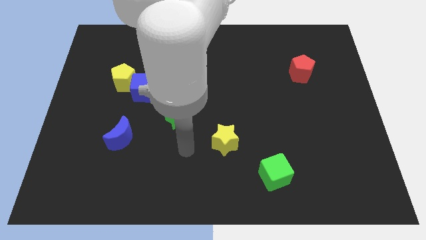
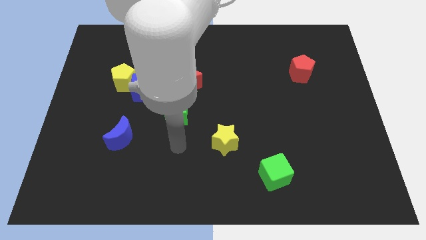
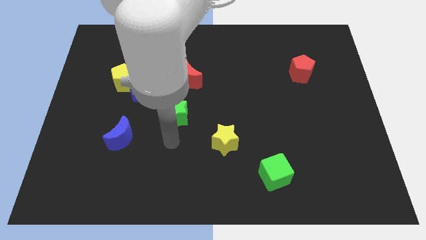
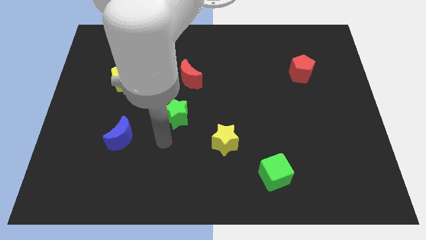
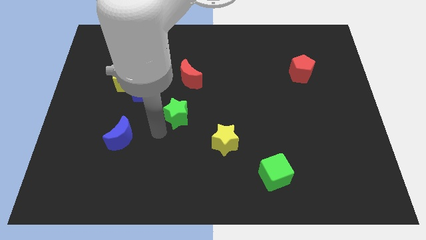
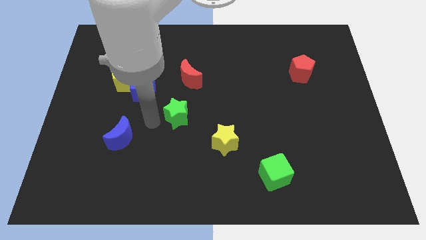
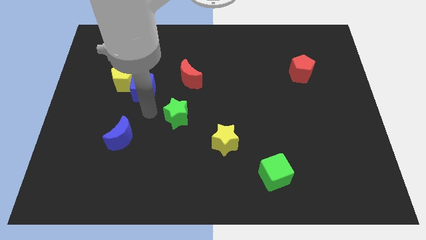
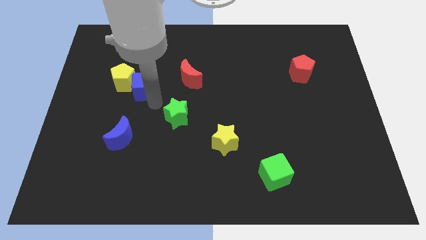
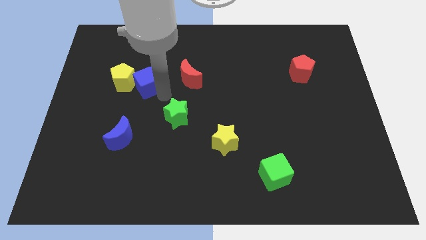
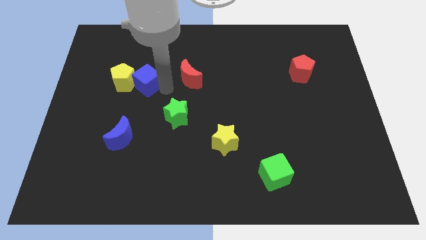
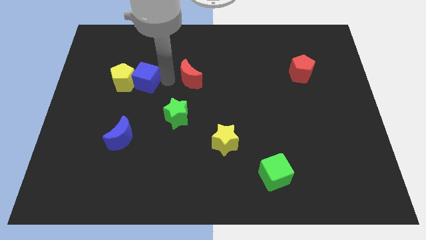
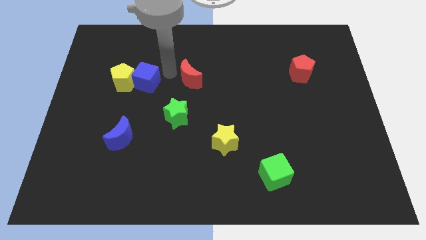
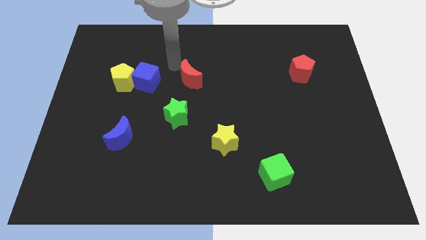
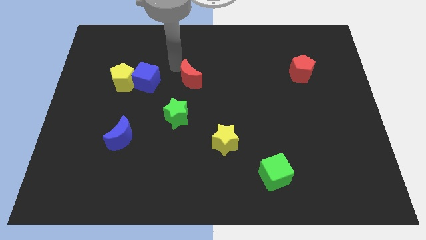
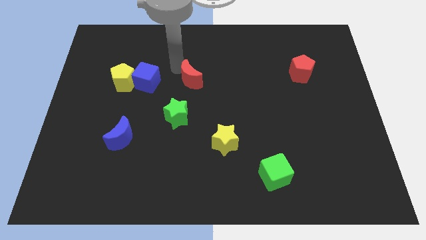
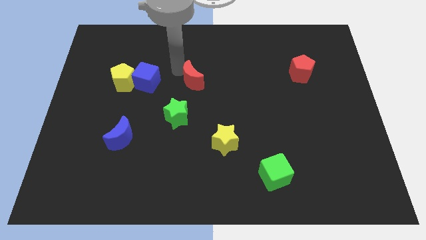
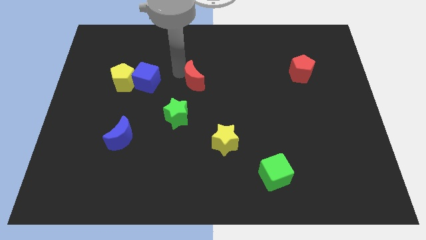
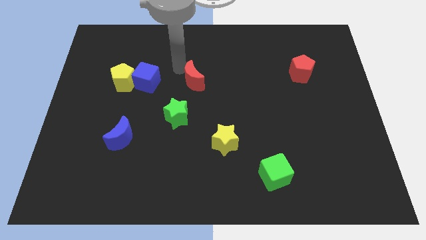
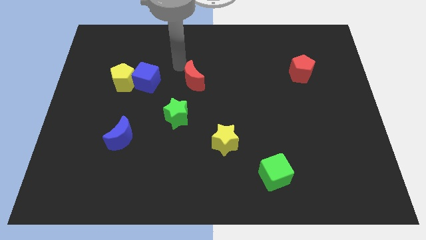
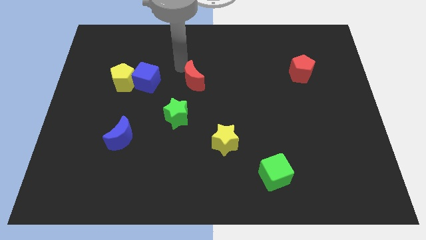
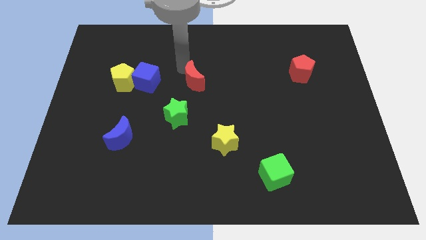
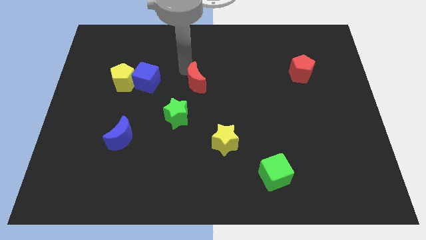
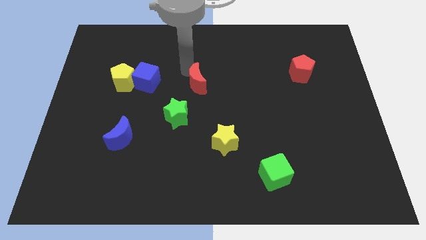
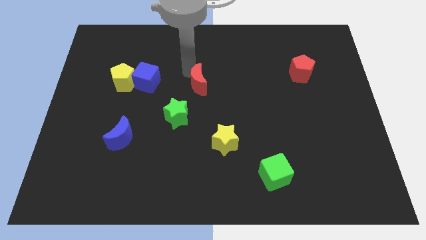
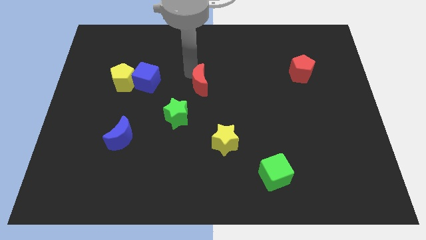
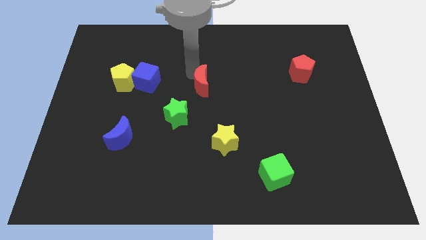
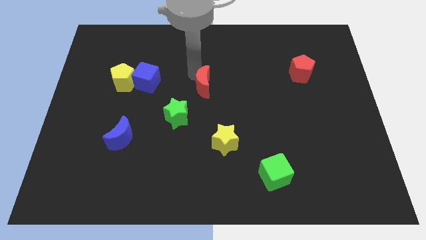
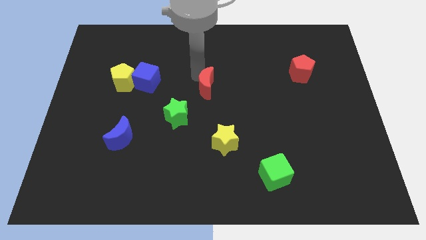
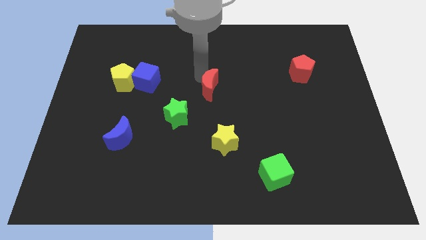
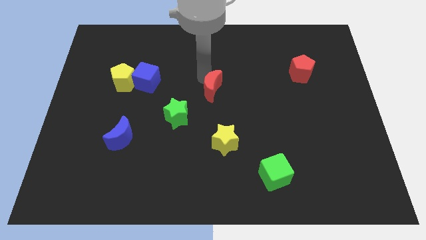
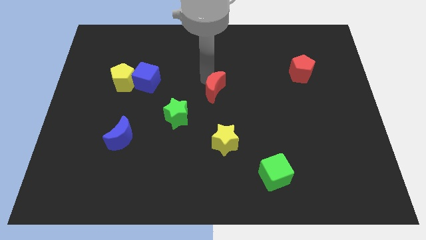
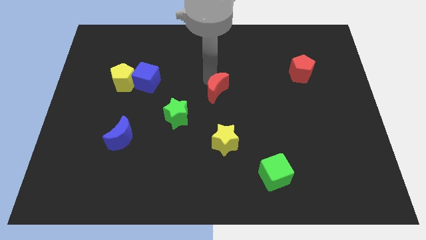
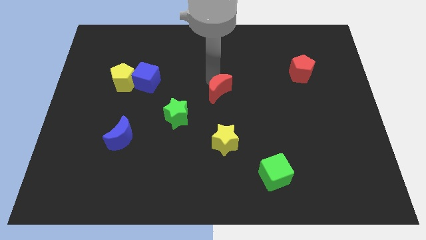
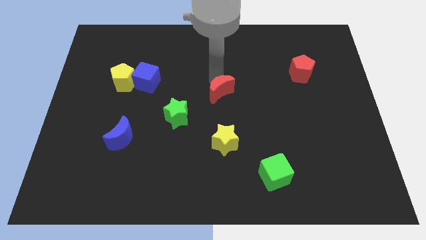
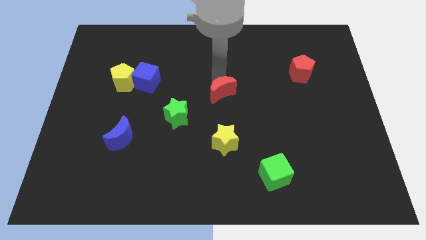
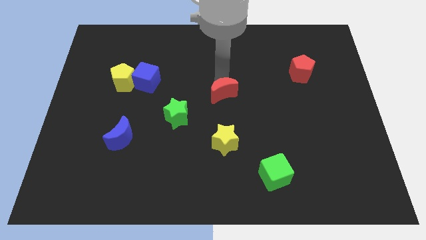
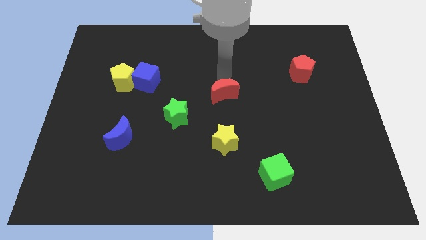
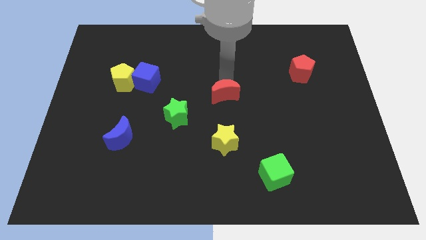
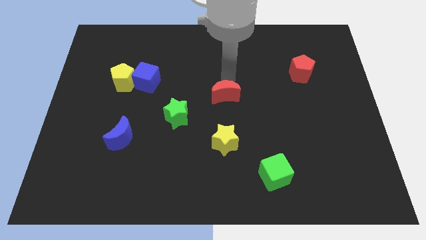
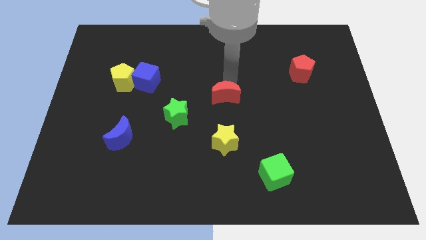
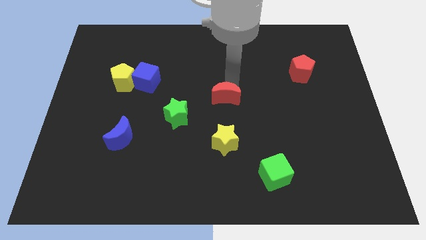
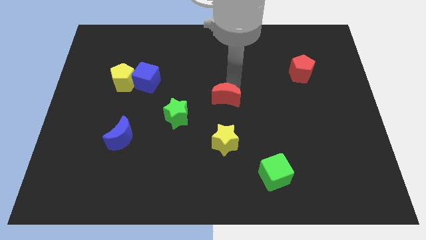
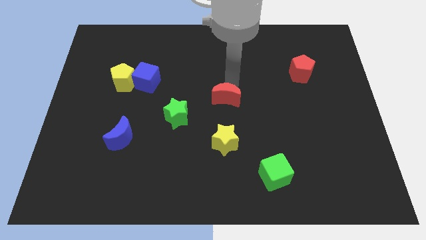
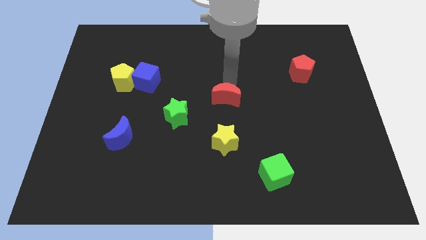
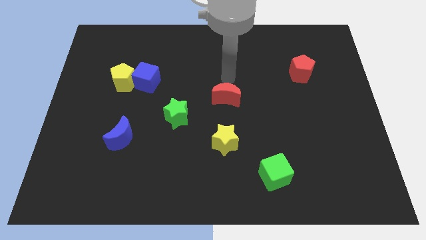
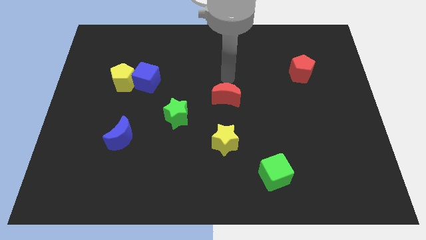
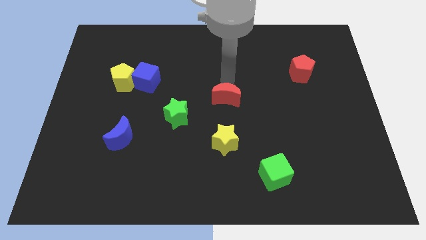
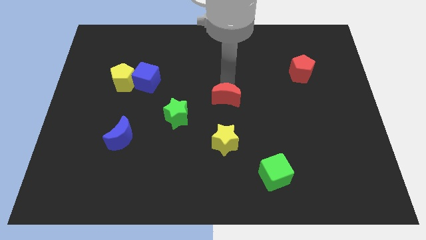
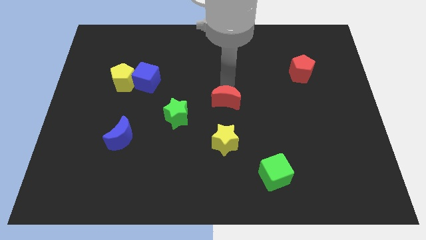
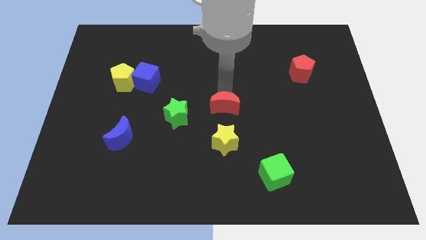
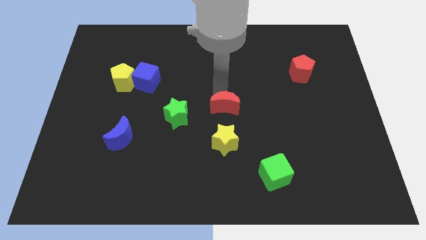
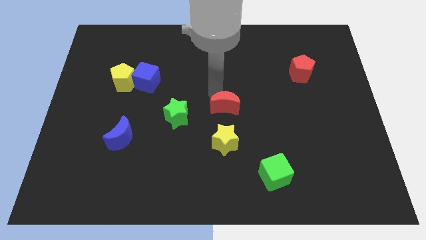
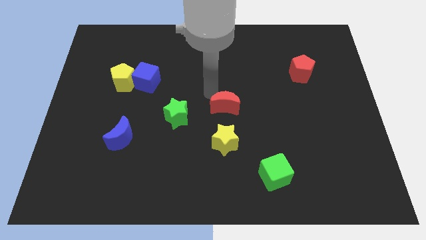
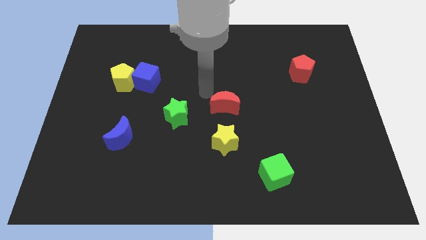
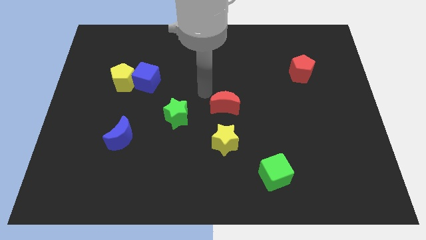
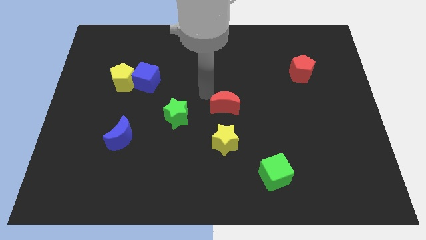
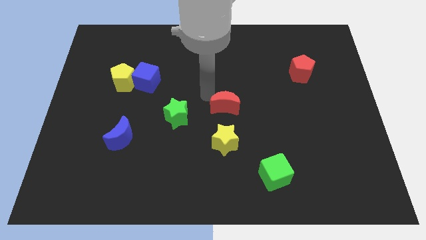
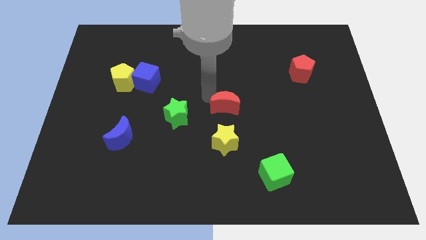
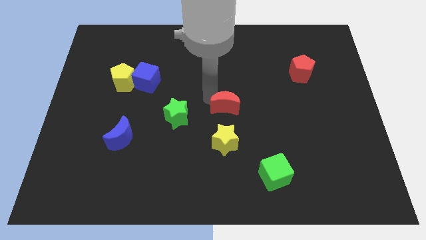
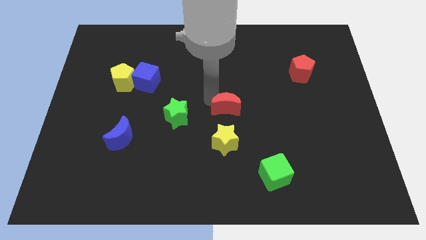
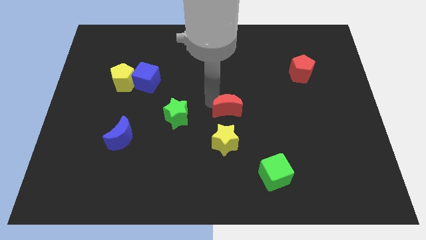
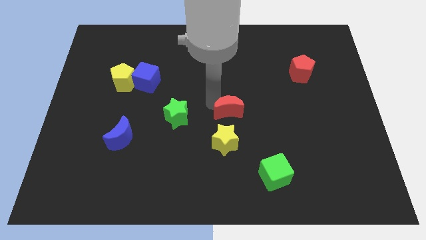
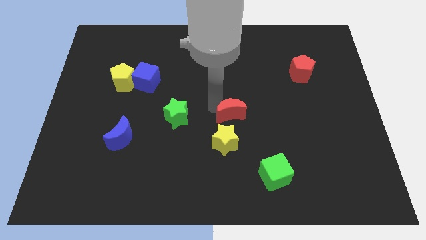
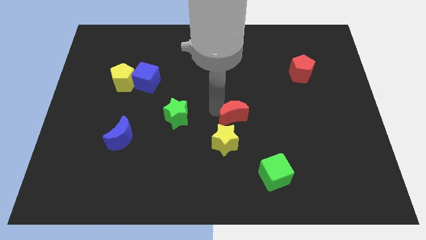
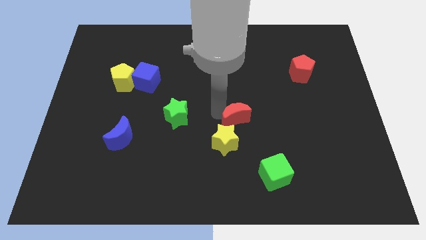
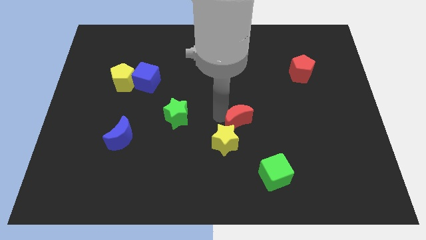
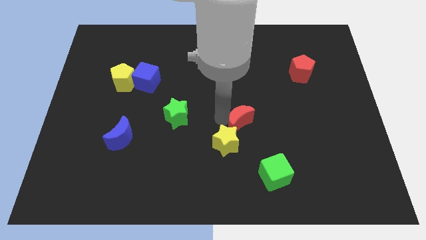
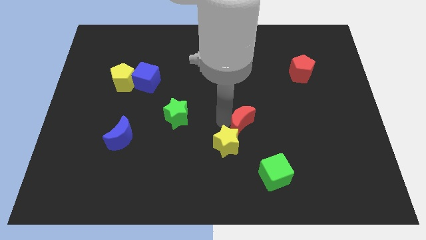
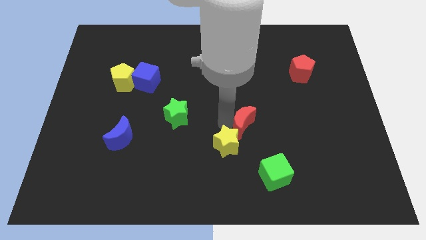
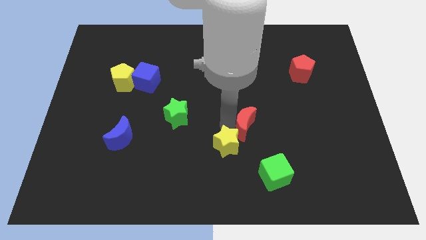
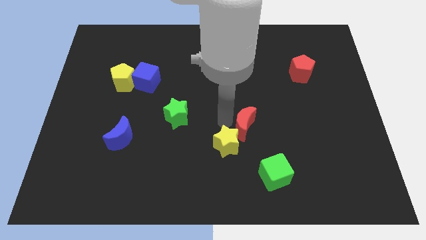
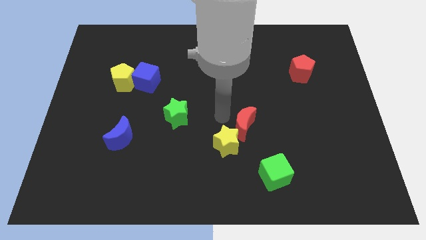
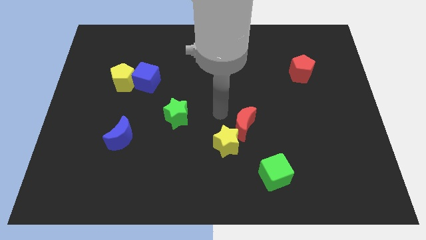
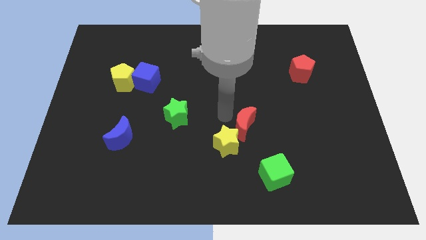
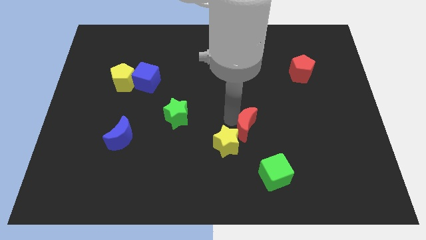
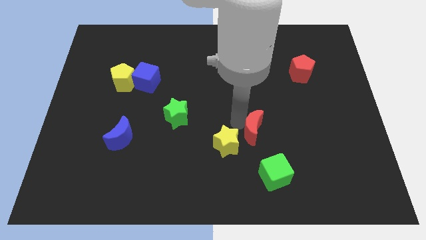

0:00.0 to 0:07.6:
push the red moon down and to the right diagonally

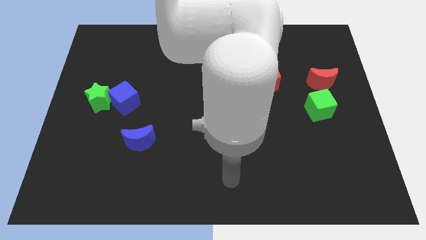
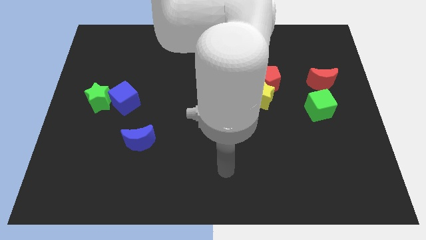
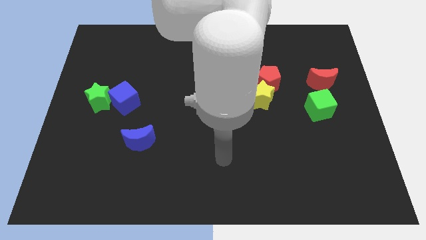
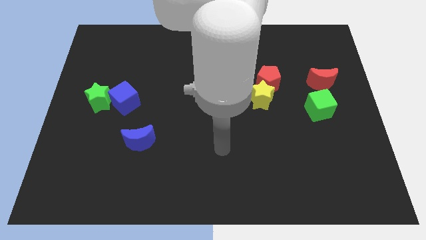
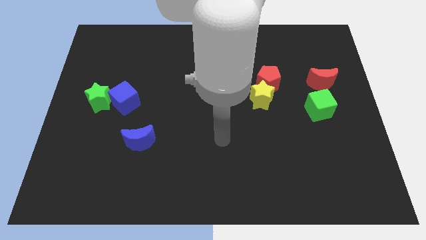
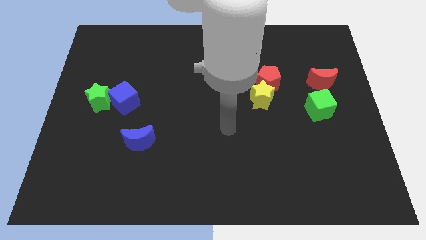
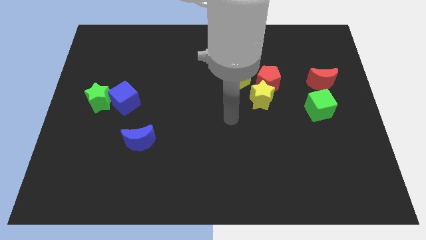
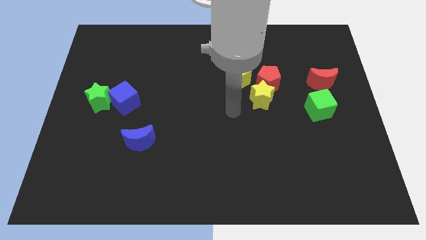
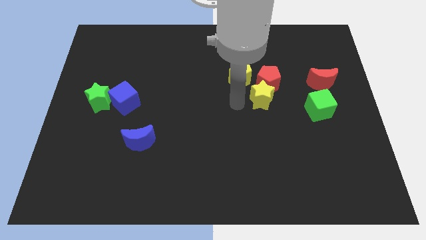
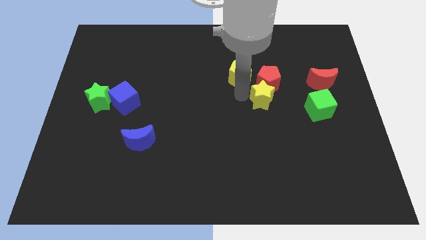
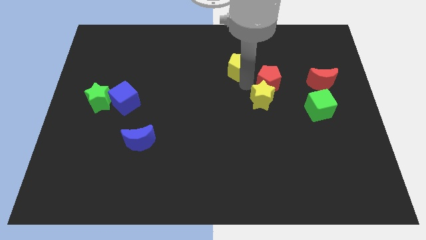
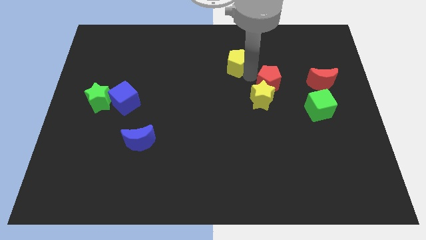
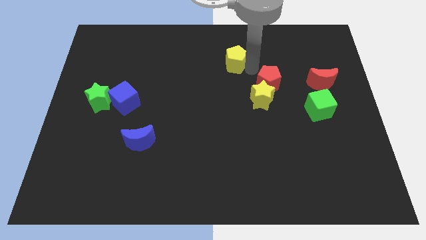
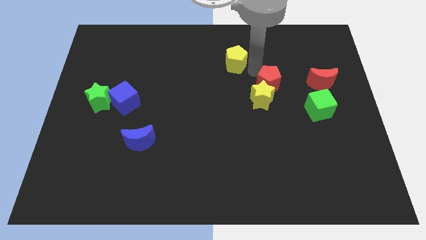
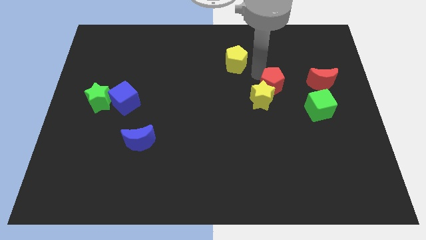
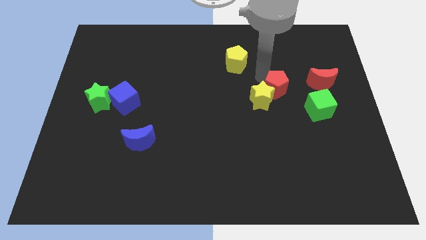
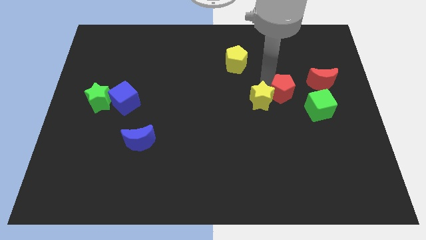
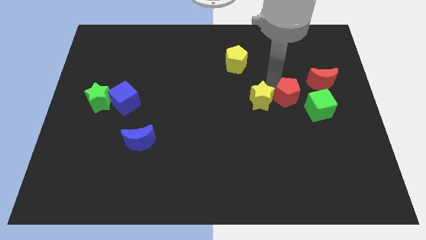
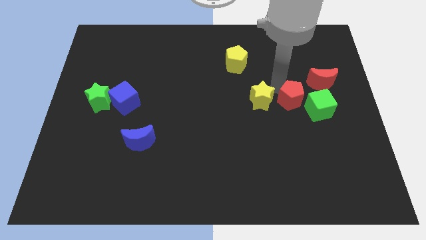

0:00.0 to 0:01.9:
slide the red pentagon a little bit down and to the right
